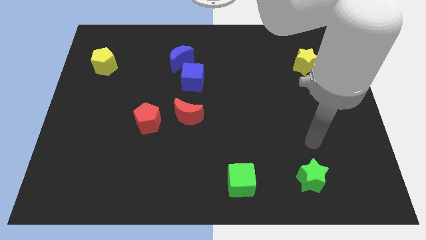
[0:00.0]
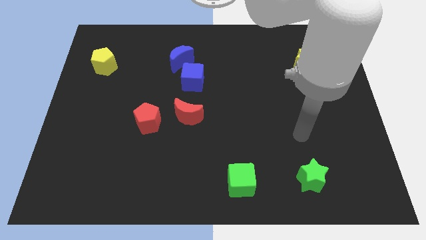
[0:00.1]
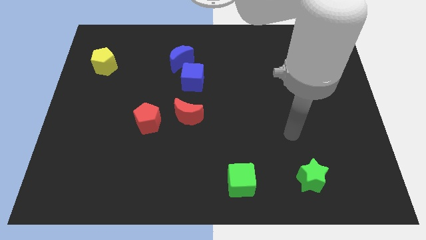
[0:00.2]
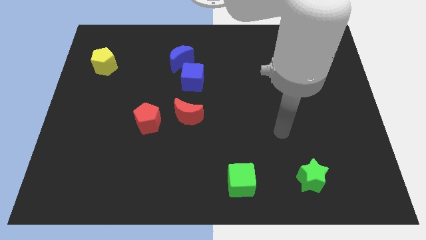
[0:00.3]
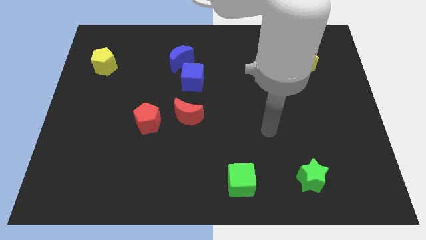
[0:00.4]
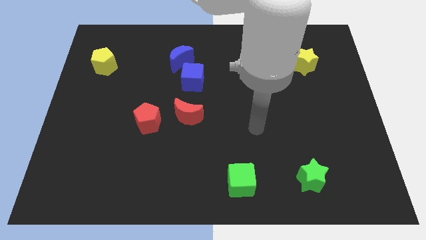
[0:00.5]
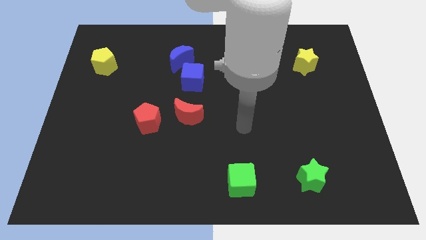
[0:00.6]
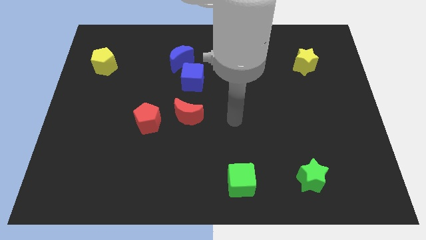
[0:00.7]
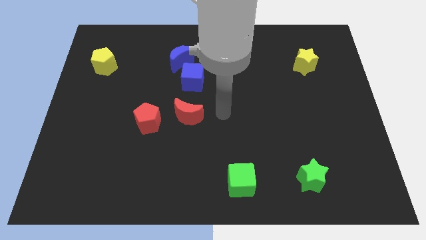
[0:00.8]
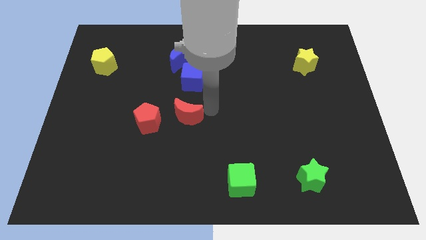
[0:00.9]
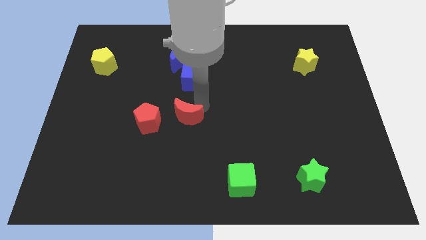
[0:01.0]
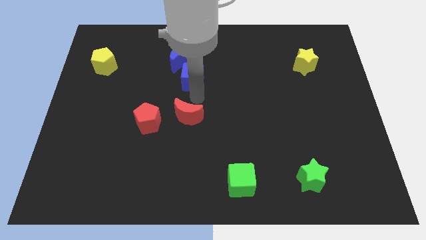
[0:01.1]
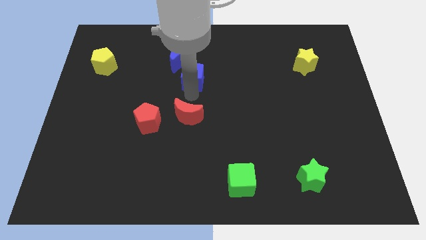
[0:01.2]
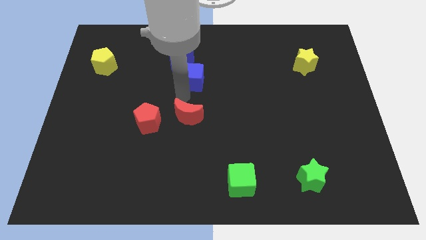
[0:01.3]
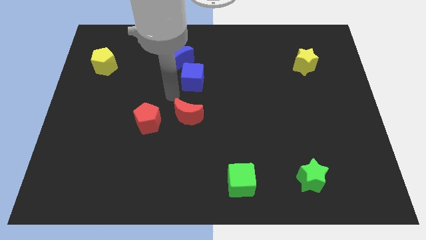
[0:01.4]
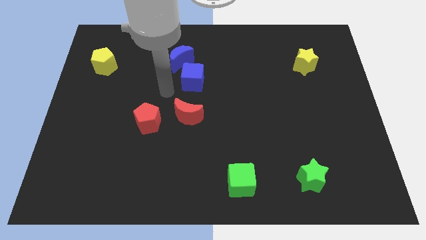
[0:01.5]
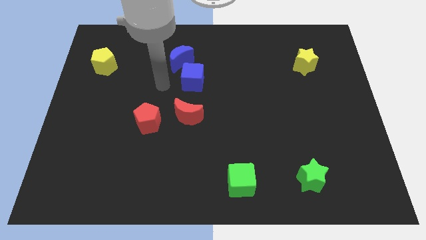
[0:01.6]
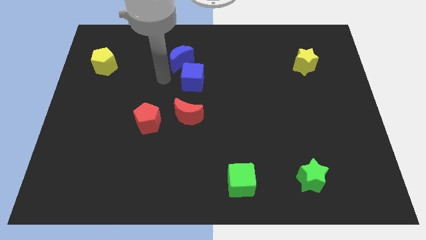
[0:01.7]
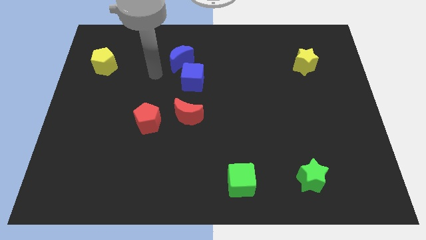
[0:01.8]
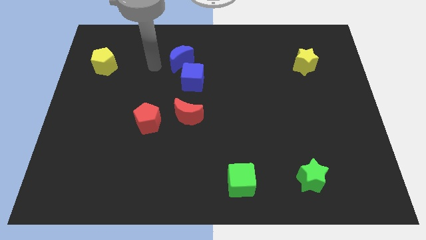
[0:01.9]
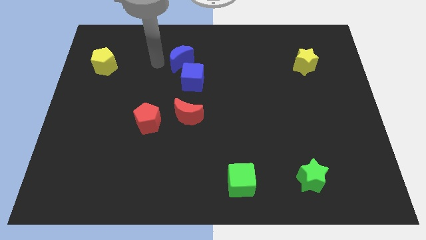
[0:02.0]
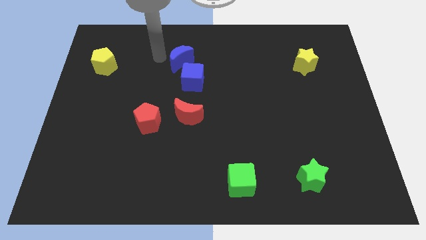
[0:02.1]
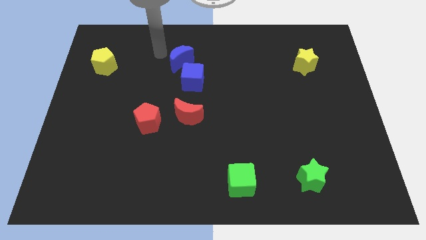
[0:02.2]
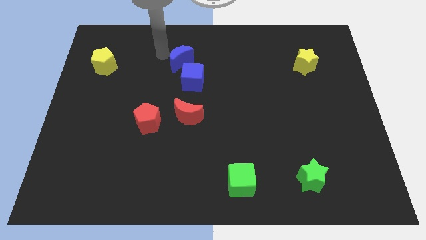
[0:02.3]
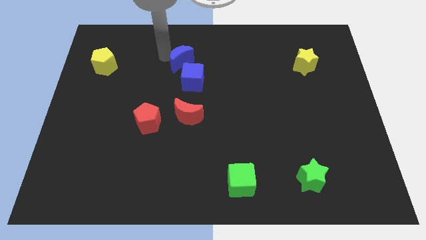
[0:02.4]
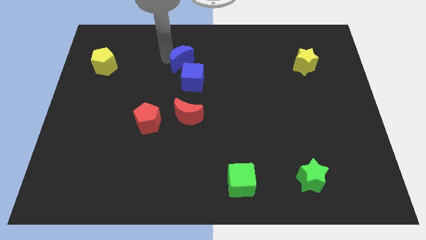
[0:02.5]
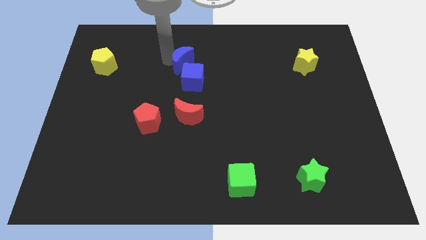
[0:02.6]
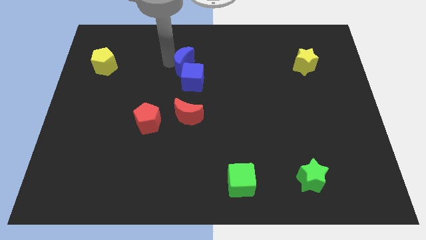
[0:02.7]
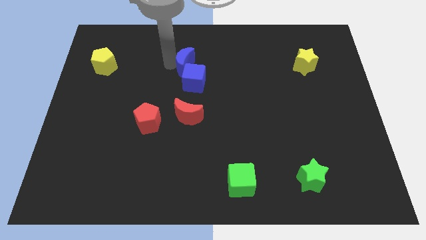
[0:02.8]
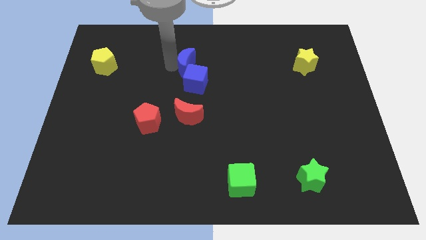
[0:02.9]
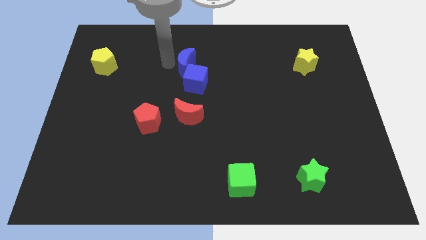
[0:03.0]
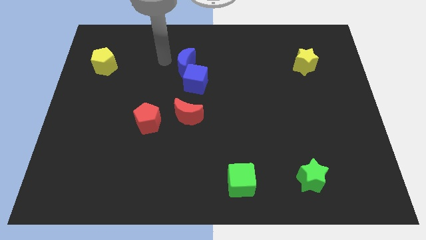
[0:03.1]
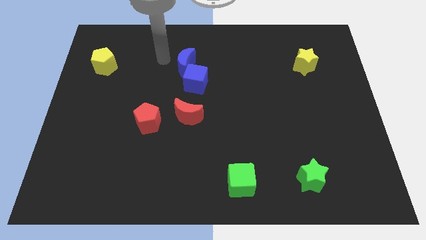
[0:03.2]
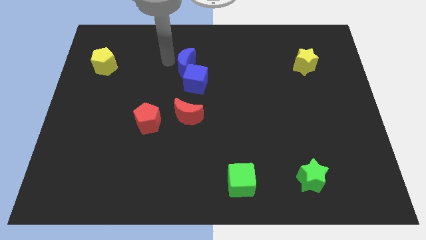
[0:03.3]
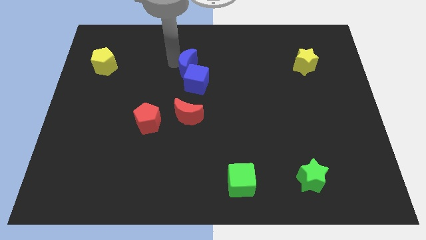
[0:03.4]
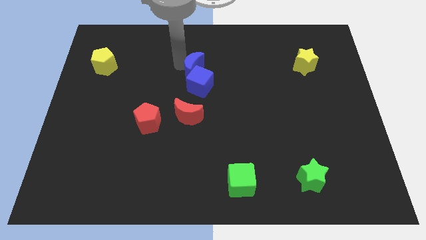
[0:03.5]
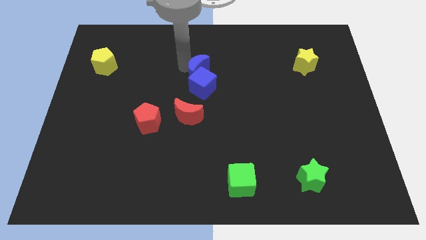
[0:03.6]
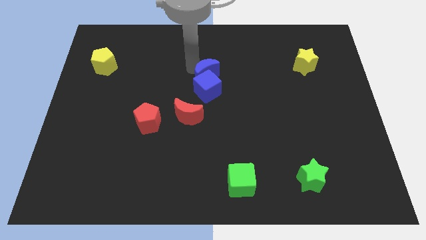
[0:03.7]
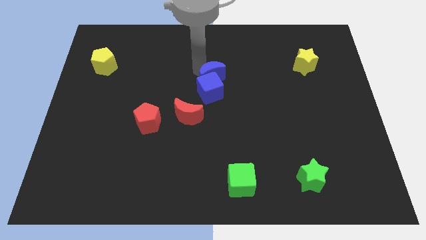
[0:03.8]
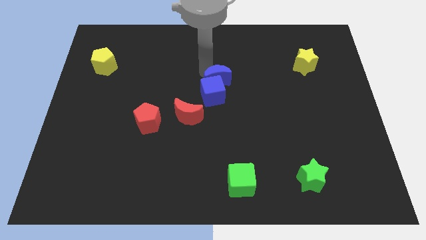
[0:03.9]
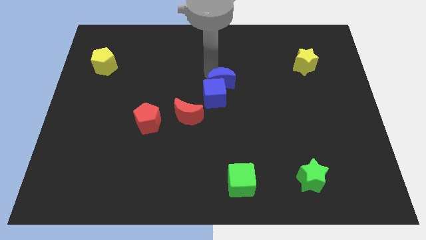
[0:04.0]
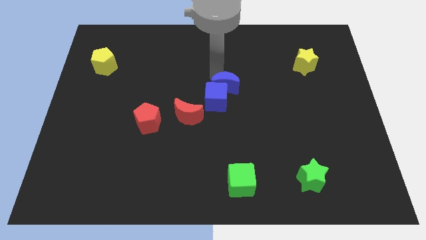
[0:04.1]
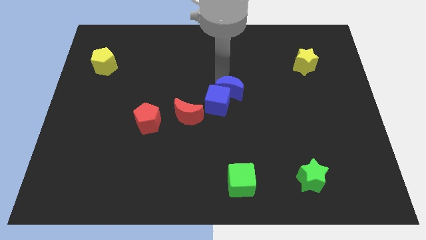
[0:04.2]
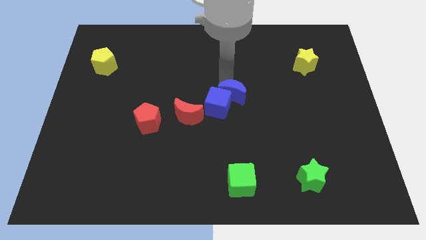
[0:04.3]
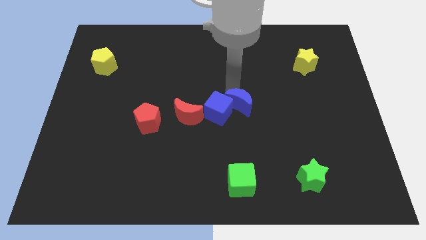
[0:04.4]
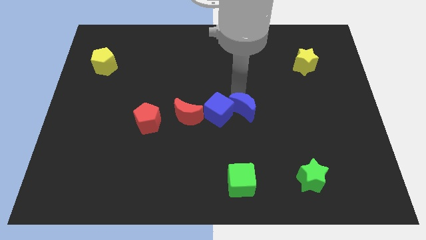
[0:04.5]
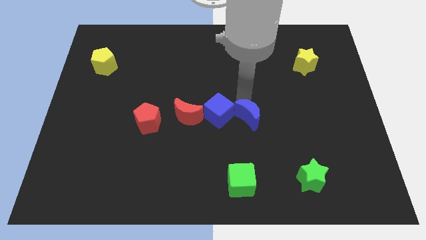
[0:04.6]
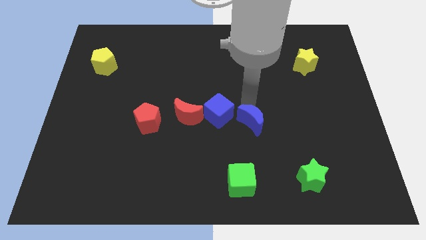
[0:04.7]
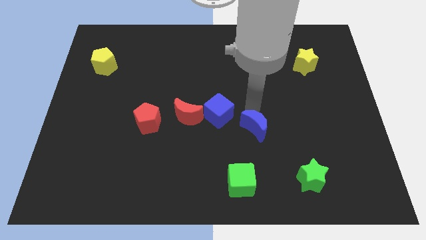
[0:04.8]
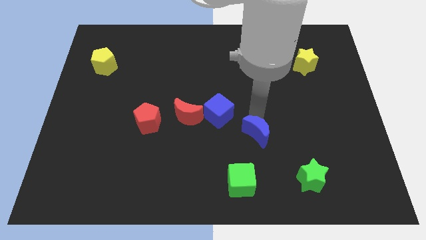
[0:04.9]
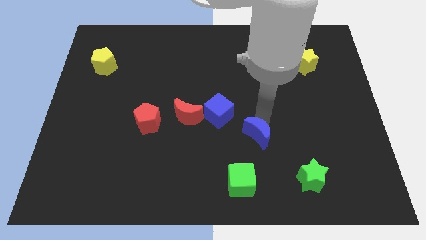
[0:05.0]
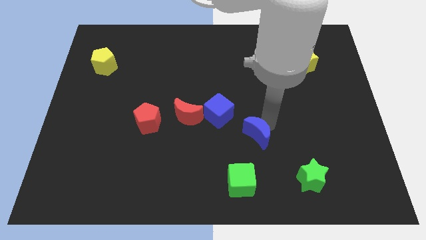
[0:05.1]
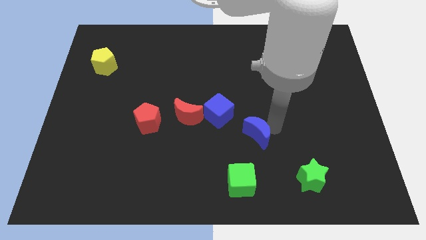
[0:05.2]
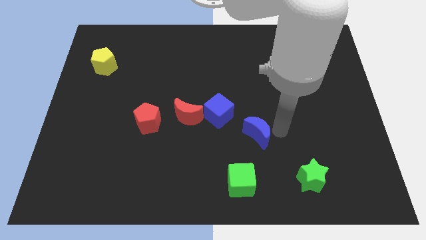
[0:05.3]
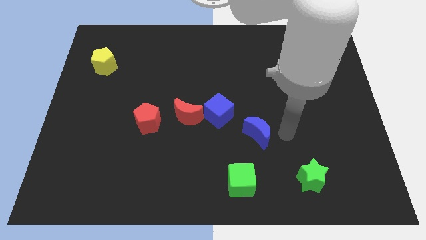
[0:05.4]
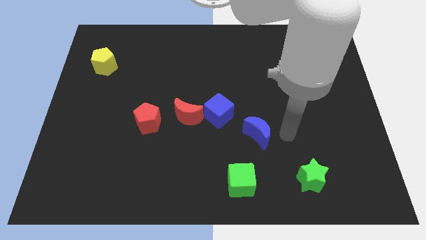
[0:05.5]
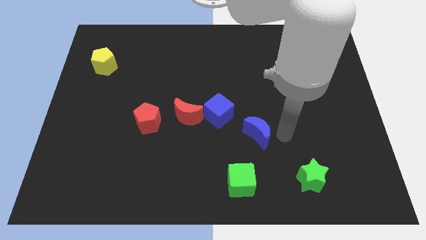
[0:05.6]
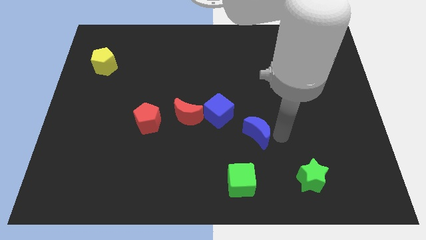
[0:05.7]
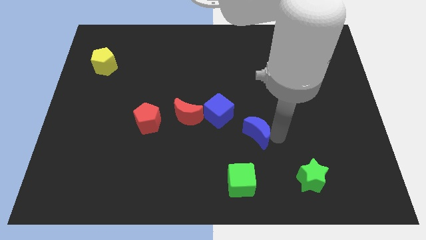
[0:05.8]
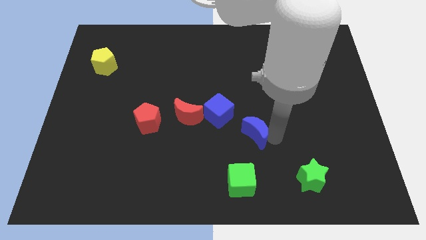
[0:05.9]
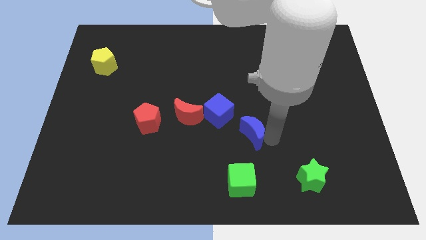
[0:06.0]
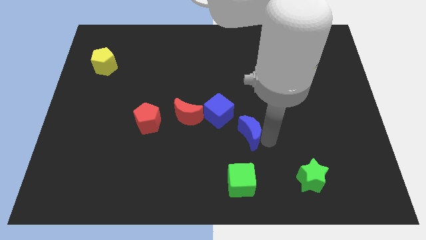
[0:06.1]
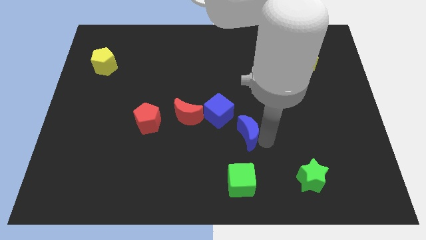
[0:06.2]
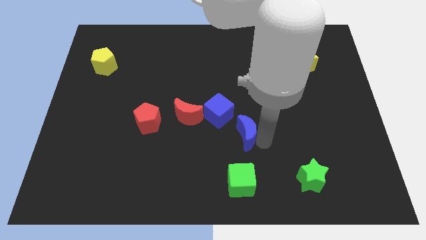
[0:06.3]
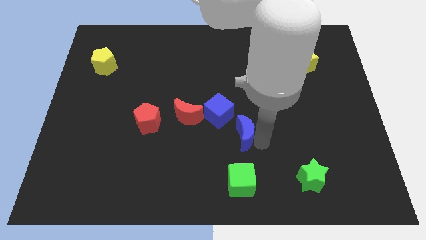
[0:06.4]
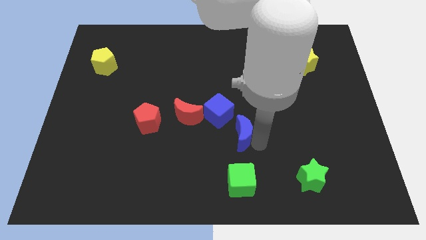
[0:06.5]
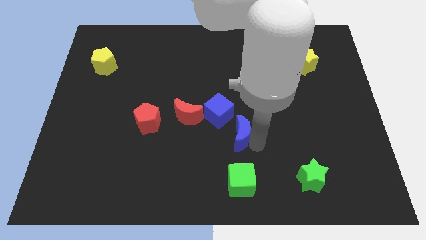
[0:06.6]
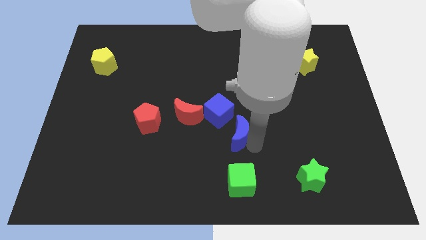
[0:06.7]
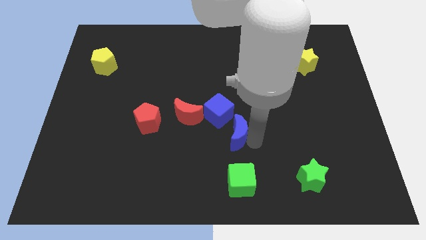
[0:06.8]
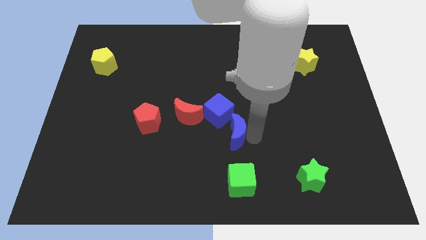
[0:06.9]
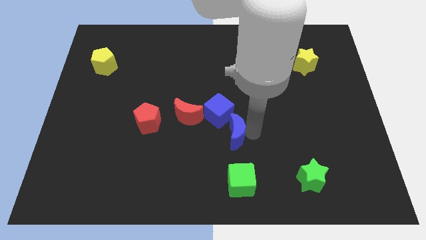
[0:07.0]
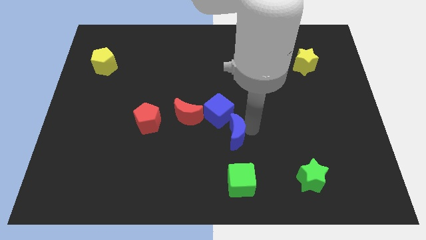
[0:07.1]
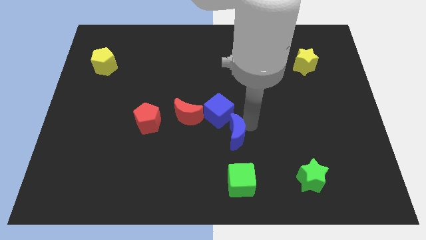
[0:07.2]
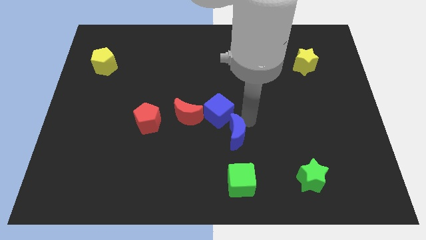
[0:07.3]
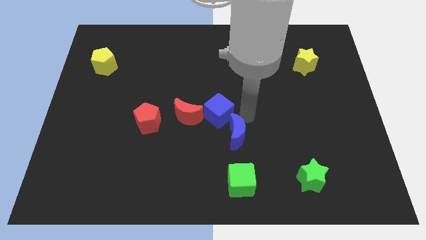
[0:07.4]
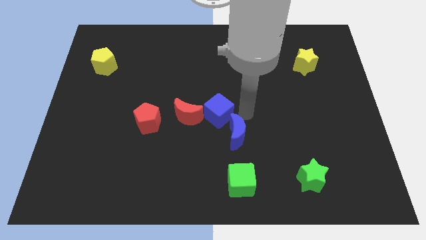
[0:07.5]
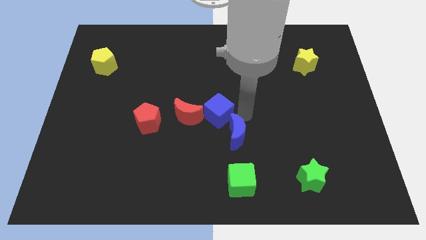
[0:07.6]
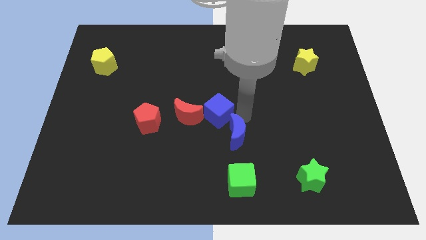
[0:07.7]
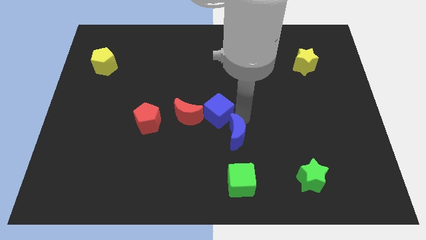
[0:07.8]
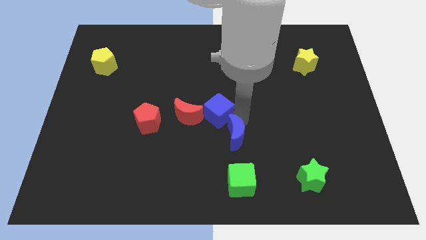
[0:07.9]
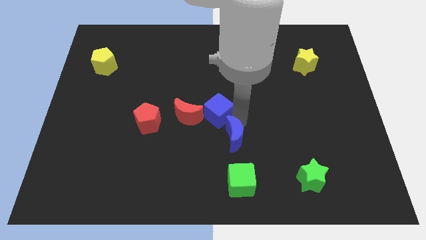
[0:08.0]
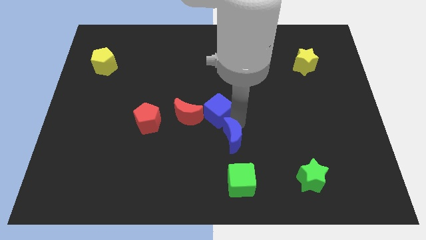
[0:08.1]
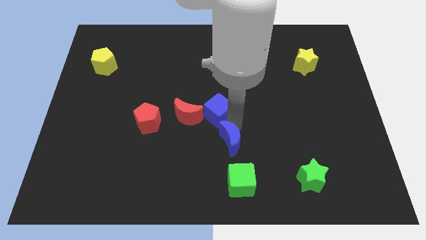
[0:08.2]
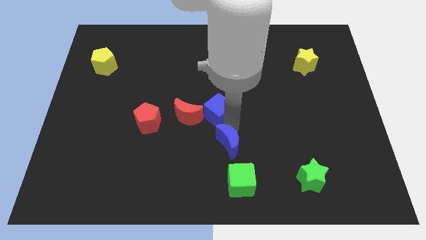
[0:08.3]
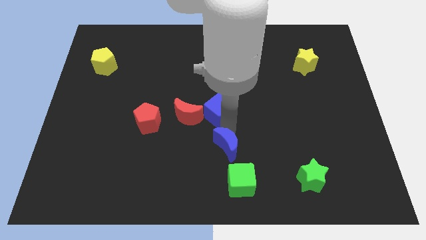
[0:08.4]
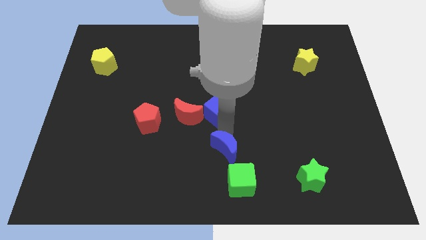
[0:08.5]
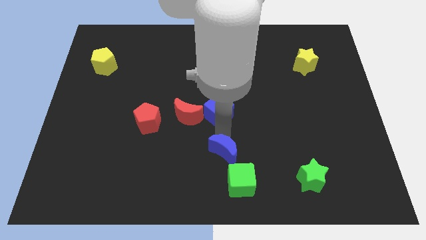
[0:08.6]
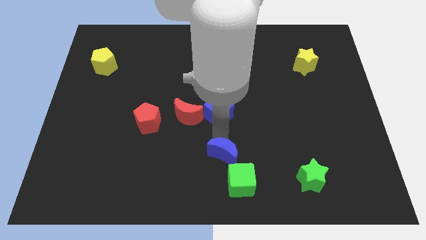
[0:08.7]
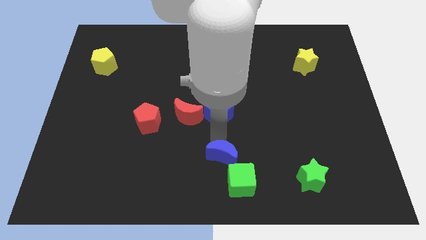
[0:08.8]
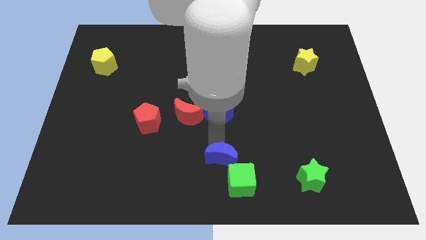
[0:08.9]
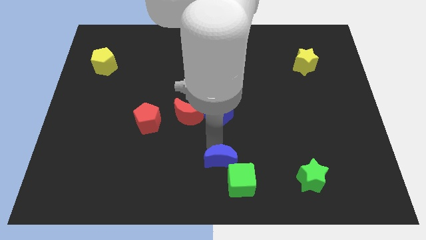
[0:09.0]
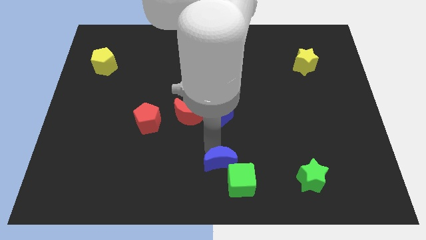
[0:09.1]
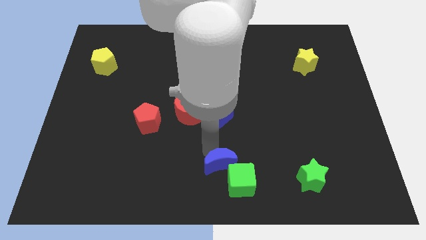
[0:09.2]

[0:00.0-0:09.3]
push the blue moon close to the green cube
